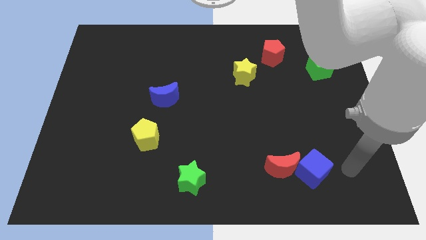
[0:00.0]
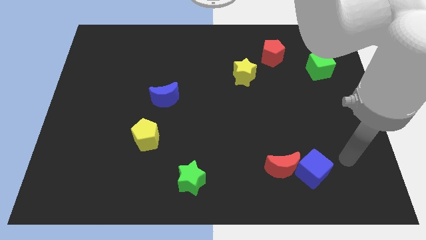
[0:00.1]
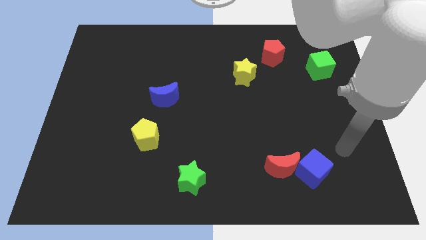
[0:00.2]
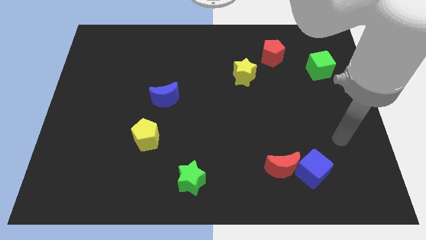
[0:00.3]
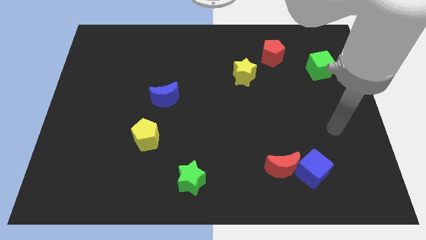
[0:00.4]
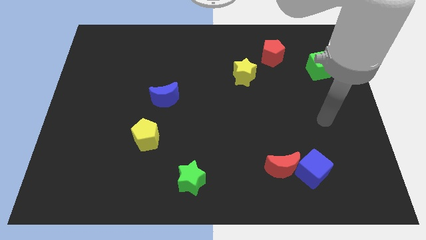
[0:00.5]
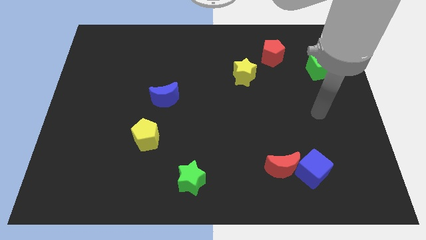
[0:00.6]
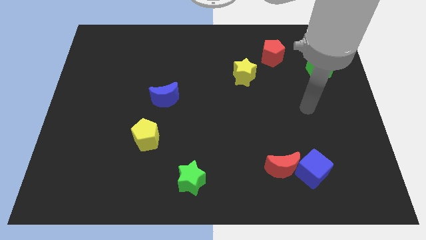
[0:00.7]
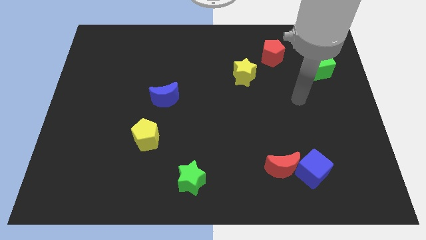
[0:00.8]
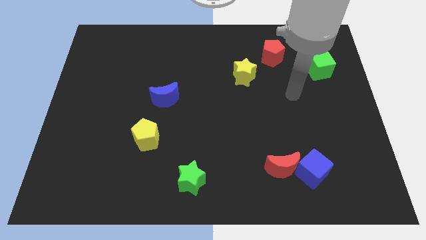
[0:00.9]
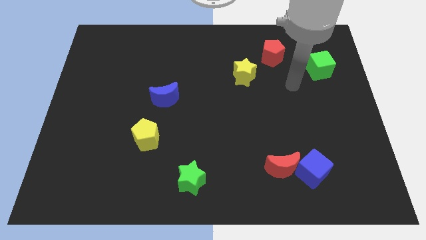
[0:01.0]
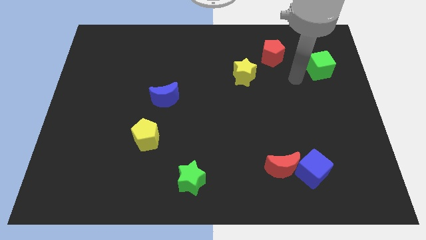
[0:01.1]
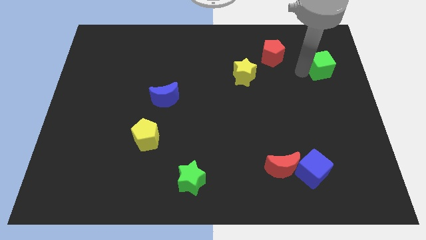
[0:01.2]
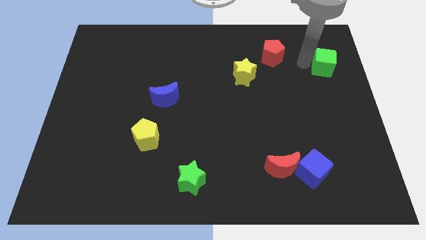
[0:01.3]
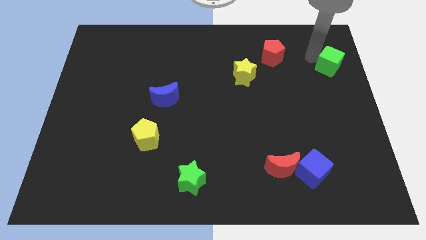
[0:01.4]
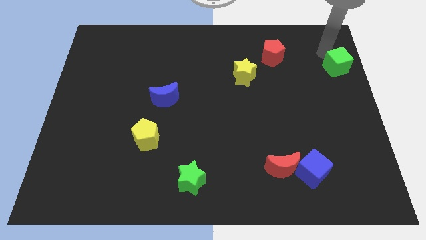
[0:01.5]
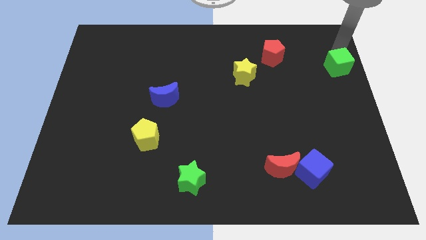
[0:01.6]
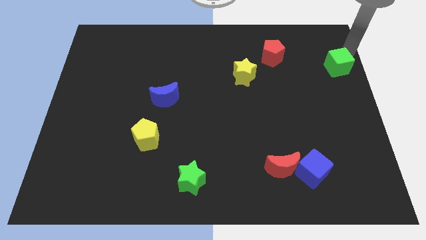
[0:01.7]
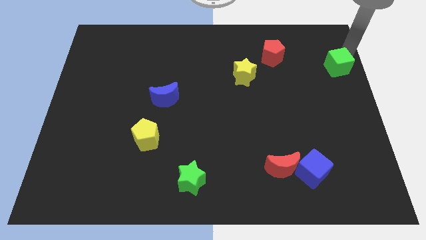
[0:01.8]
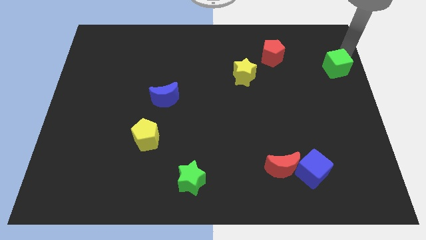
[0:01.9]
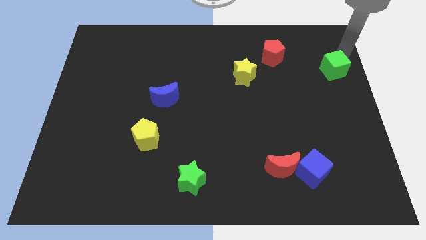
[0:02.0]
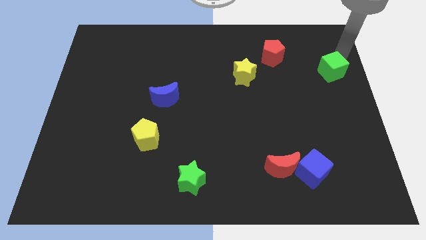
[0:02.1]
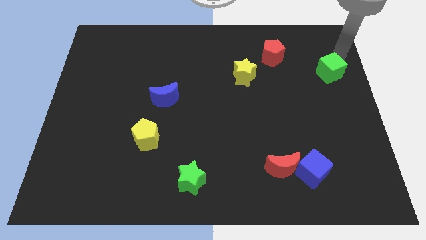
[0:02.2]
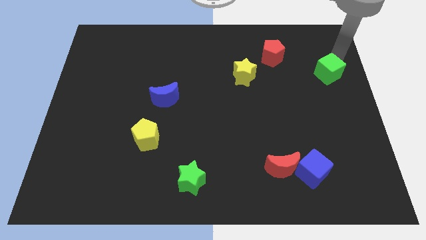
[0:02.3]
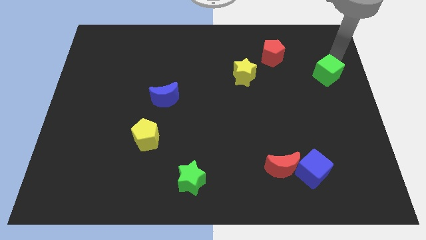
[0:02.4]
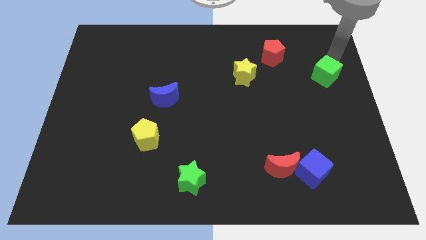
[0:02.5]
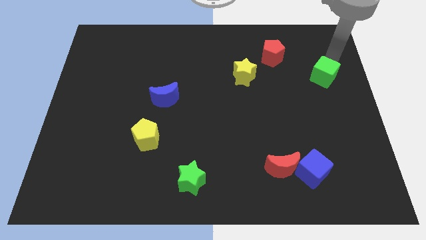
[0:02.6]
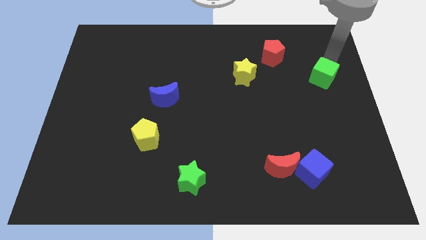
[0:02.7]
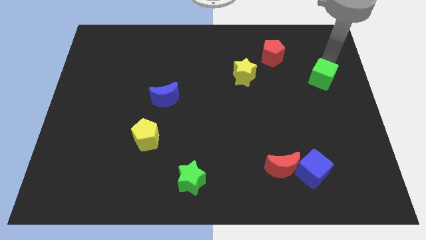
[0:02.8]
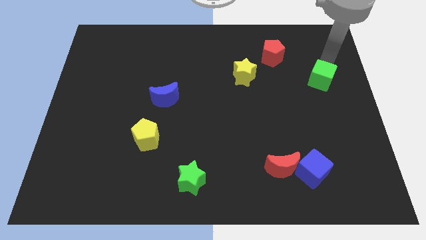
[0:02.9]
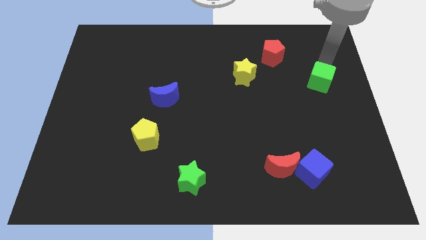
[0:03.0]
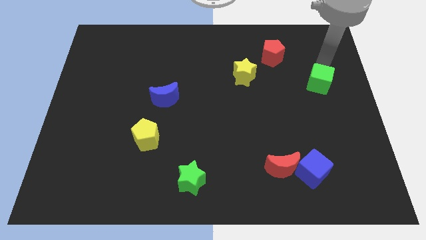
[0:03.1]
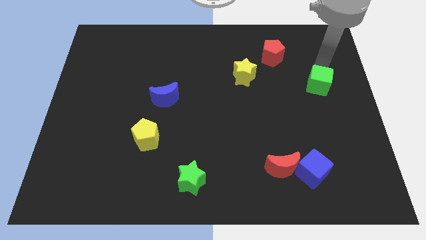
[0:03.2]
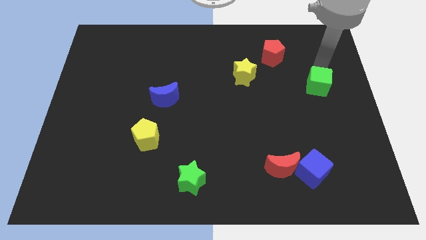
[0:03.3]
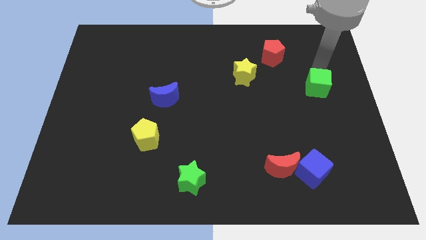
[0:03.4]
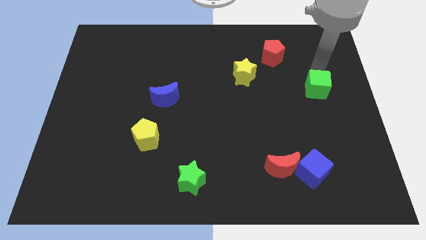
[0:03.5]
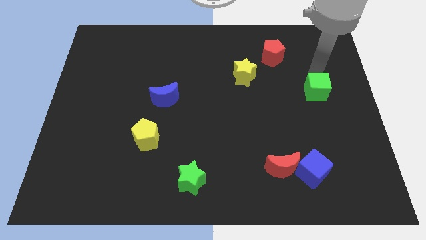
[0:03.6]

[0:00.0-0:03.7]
slide the green cube down somewhat

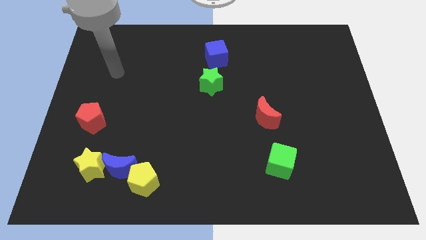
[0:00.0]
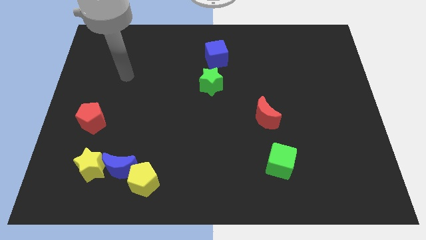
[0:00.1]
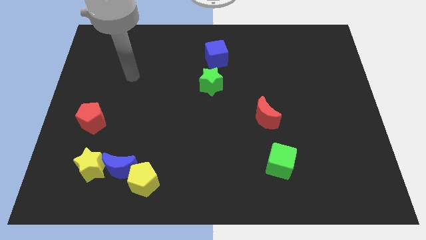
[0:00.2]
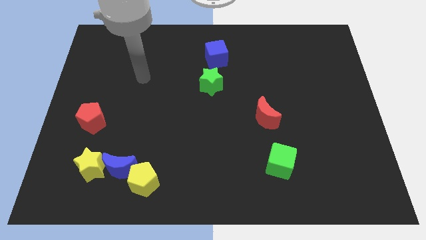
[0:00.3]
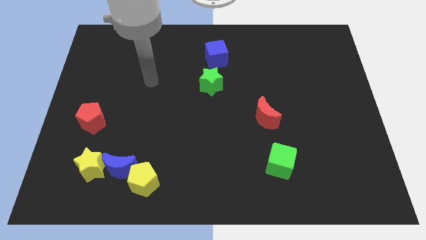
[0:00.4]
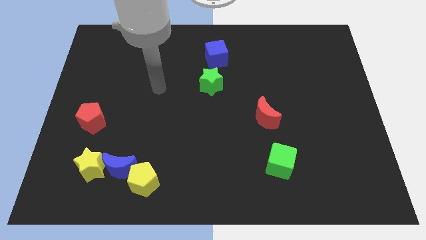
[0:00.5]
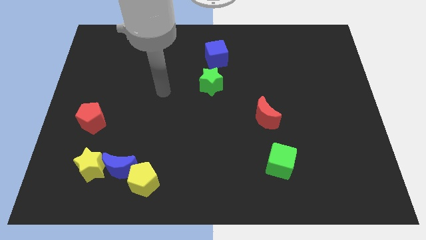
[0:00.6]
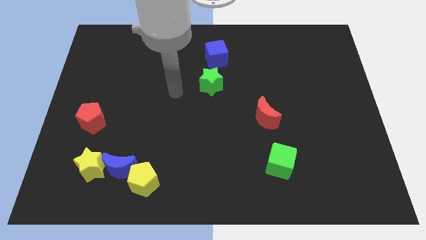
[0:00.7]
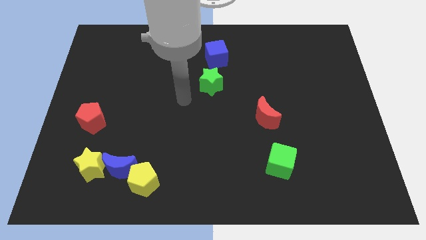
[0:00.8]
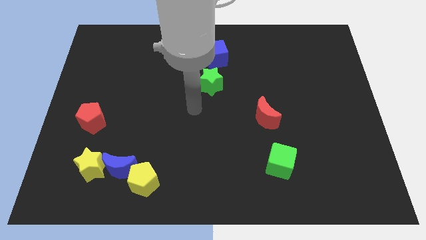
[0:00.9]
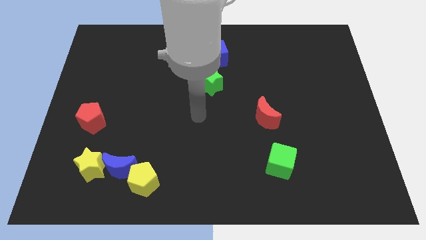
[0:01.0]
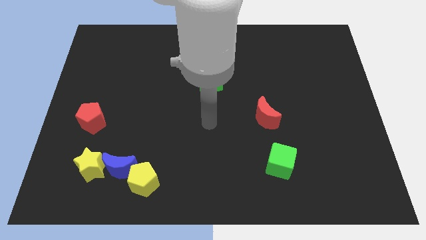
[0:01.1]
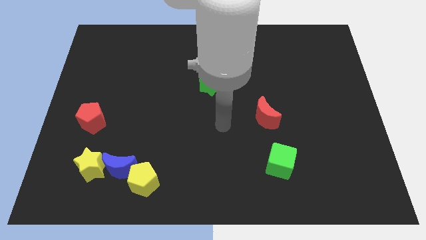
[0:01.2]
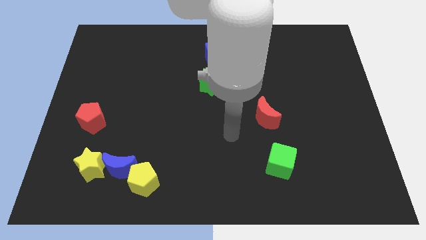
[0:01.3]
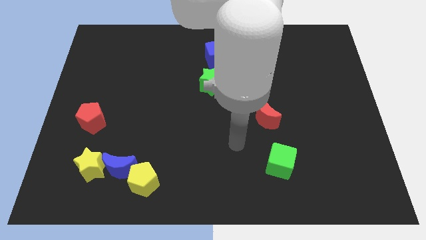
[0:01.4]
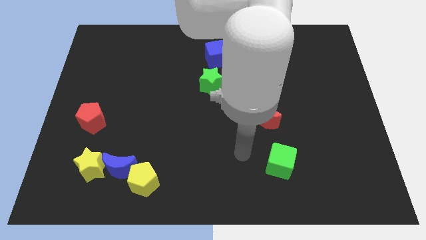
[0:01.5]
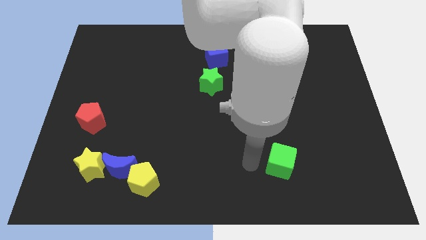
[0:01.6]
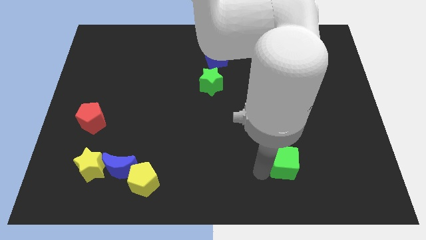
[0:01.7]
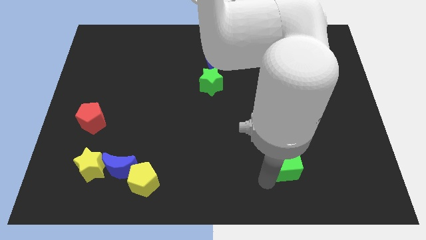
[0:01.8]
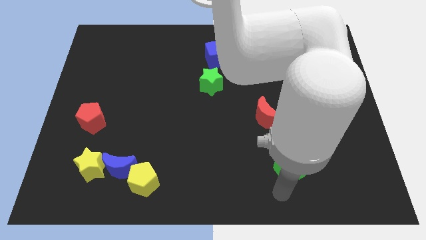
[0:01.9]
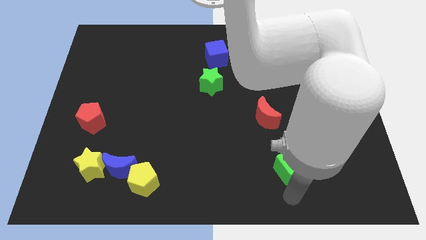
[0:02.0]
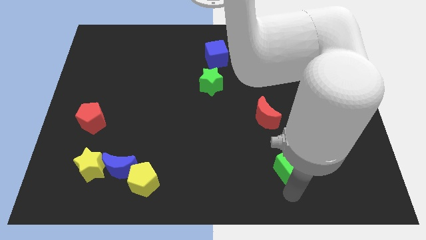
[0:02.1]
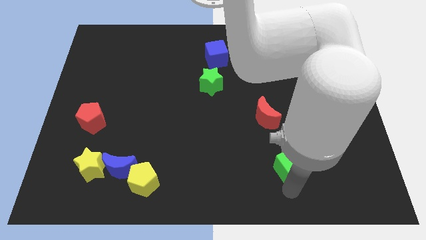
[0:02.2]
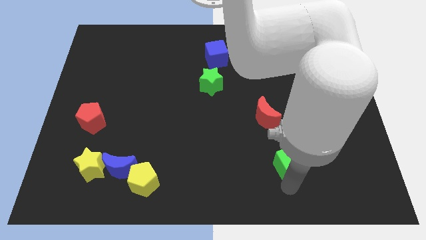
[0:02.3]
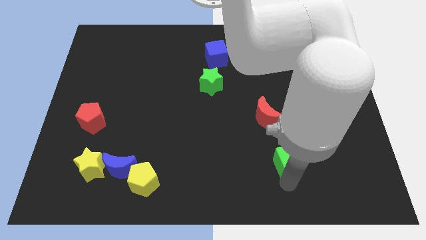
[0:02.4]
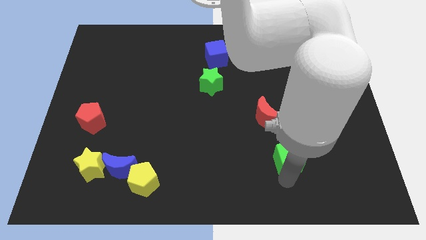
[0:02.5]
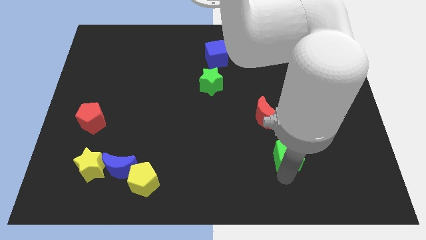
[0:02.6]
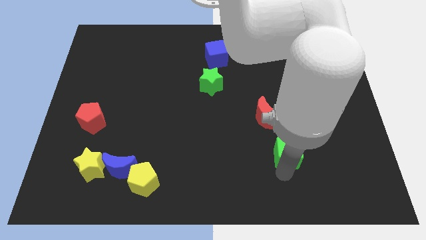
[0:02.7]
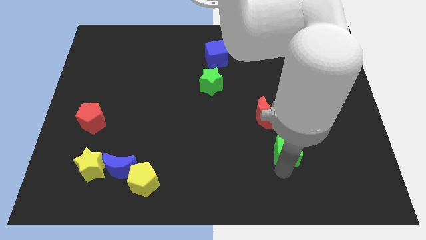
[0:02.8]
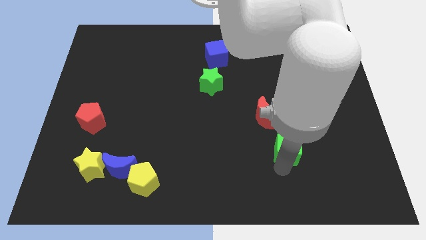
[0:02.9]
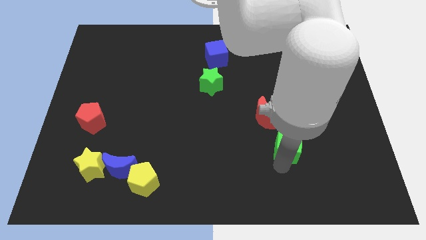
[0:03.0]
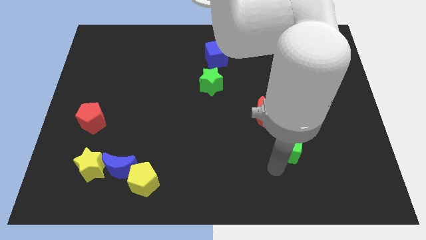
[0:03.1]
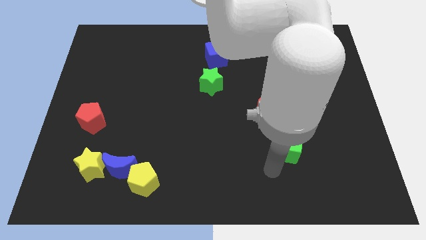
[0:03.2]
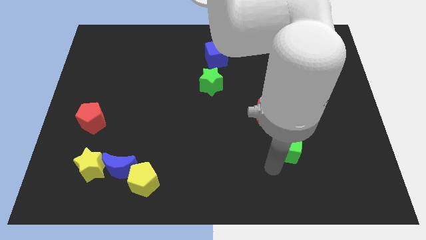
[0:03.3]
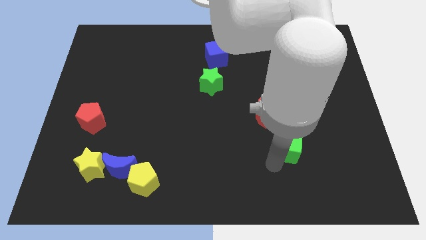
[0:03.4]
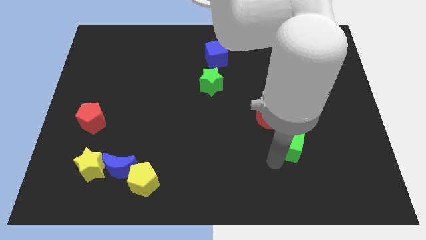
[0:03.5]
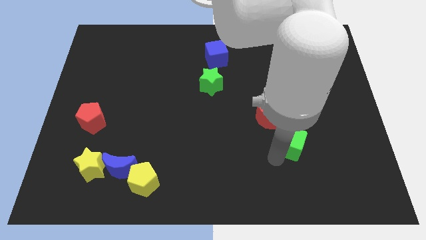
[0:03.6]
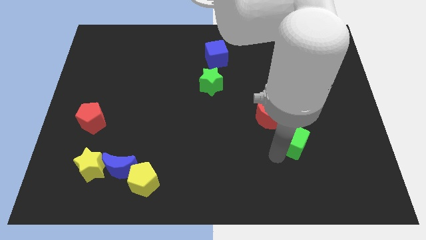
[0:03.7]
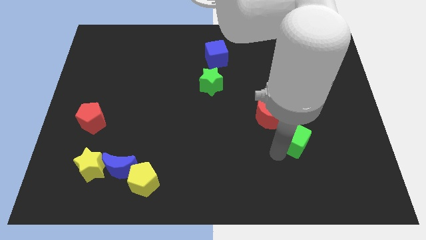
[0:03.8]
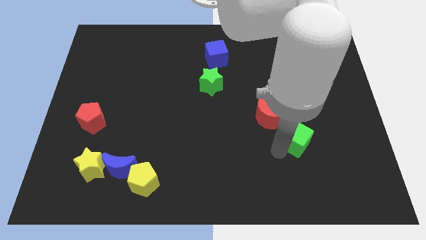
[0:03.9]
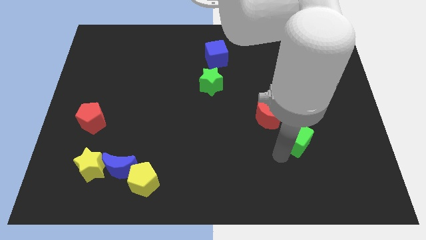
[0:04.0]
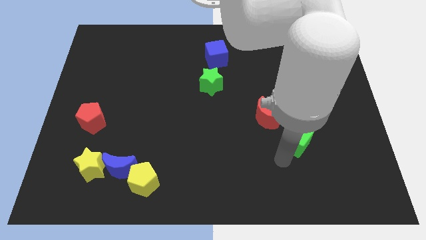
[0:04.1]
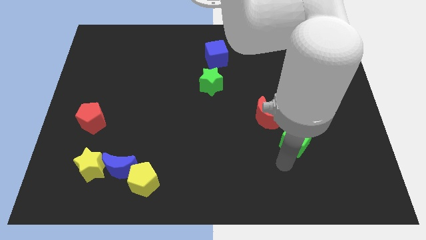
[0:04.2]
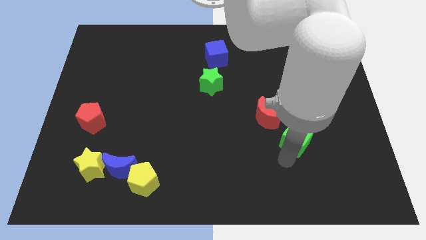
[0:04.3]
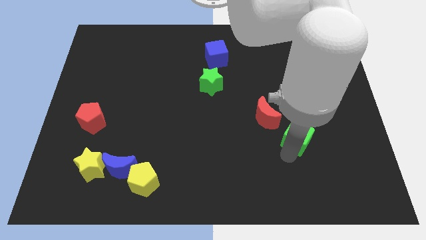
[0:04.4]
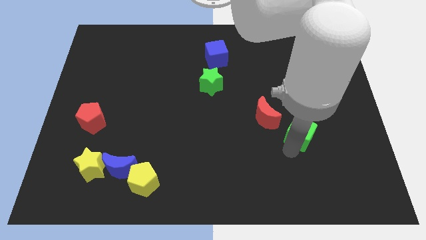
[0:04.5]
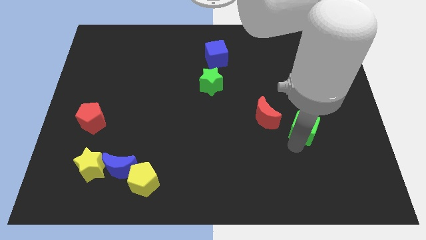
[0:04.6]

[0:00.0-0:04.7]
slide the green cube slightly up
